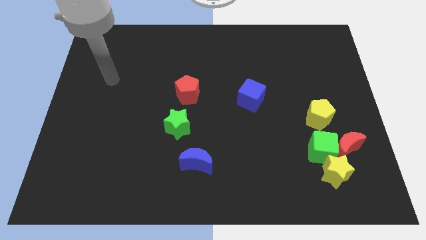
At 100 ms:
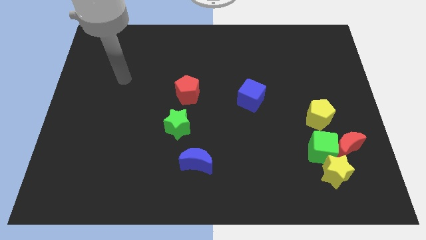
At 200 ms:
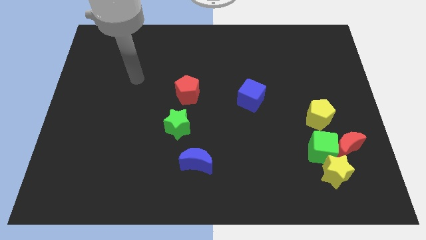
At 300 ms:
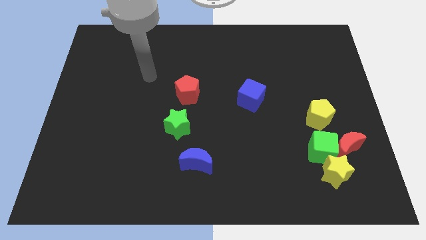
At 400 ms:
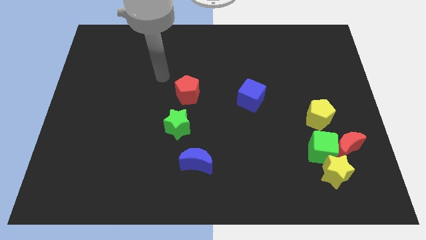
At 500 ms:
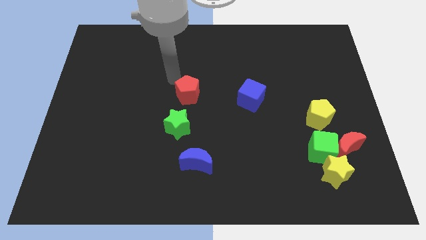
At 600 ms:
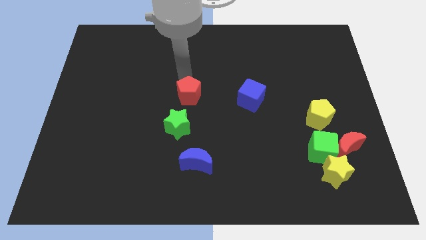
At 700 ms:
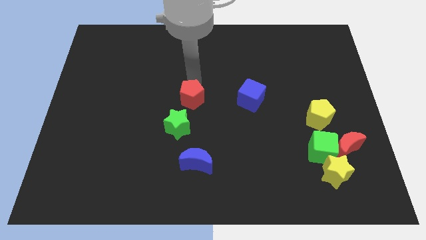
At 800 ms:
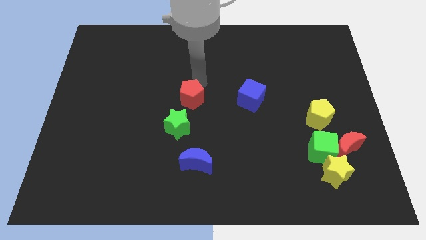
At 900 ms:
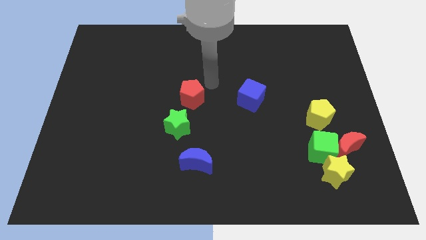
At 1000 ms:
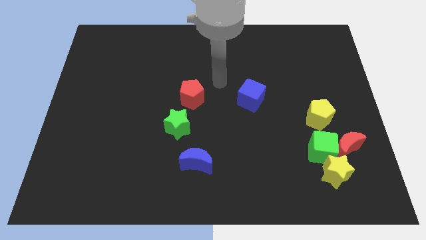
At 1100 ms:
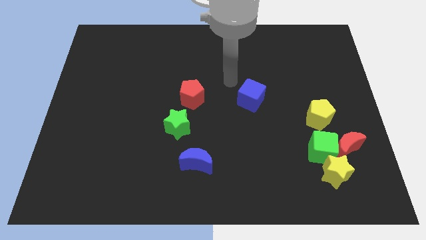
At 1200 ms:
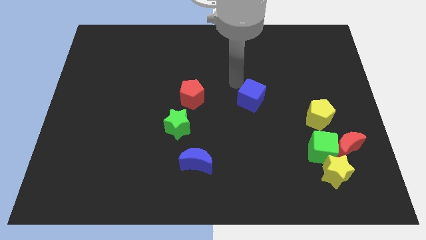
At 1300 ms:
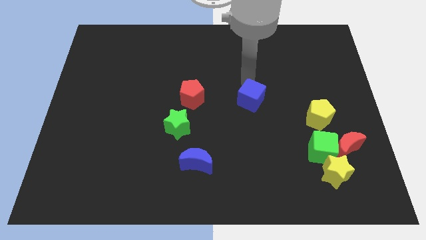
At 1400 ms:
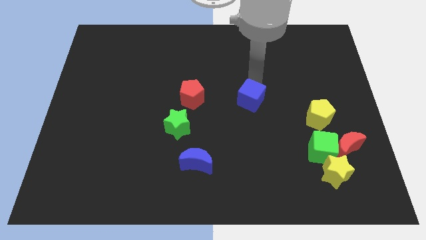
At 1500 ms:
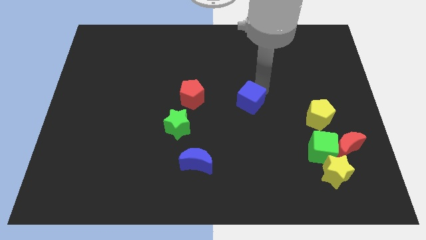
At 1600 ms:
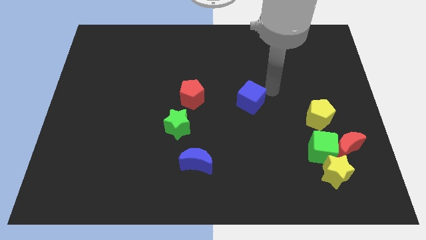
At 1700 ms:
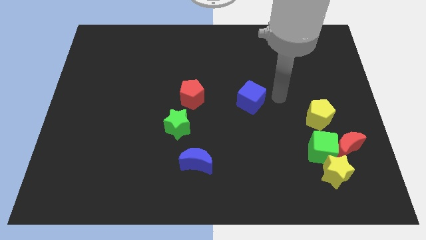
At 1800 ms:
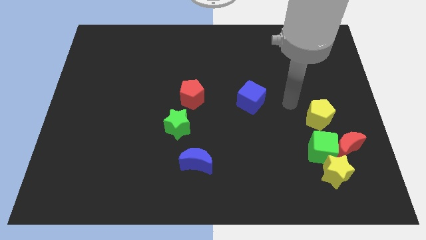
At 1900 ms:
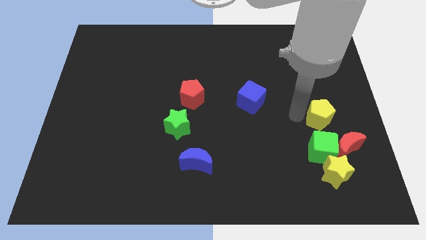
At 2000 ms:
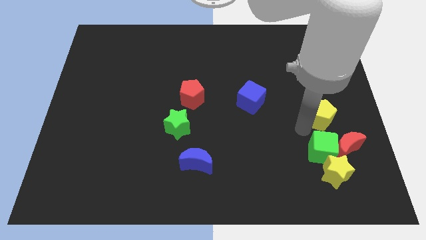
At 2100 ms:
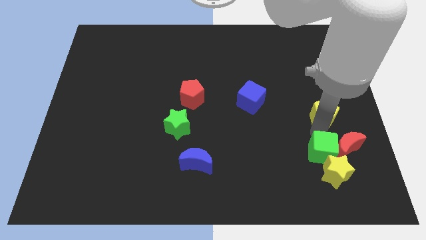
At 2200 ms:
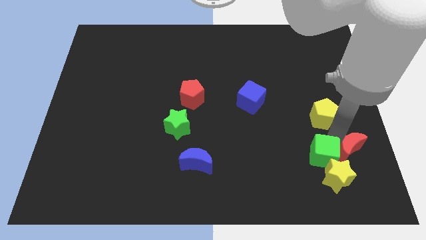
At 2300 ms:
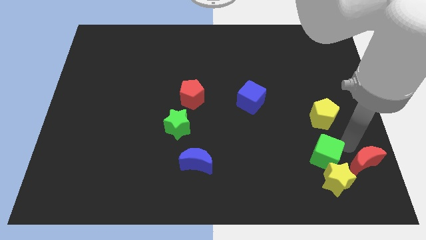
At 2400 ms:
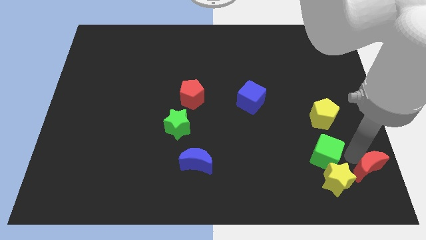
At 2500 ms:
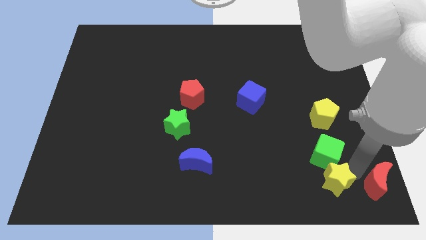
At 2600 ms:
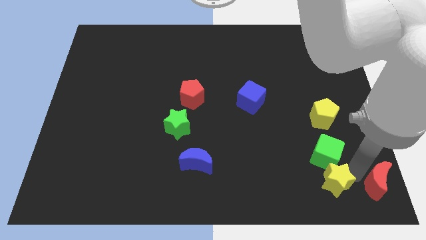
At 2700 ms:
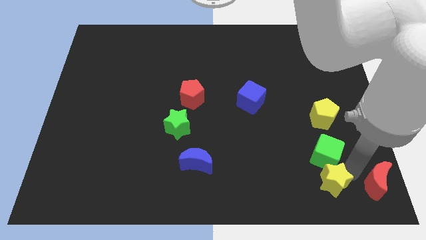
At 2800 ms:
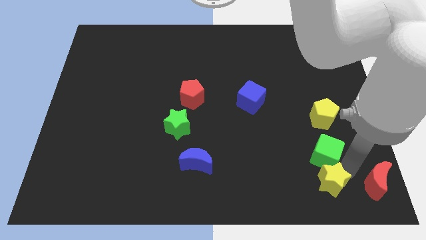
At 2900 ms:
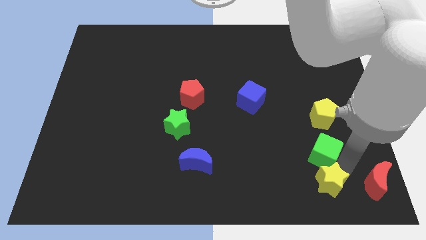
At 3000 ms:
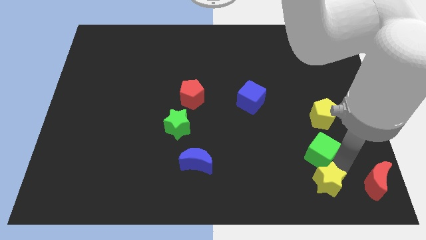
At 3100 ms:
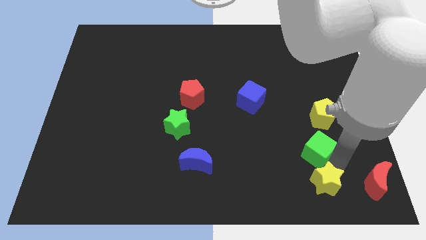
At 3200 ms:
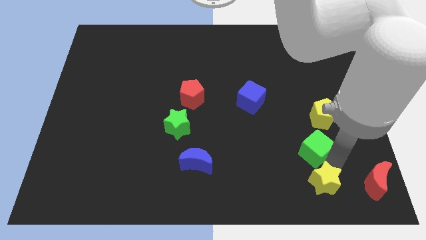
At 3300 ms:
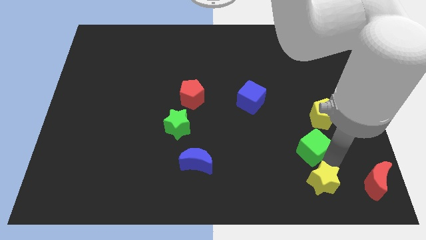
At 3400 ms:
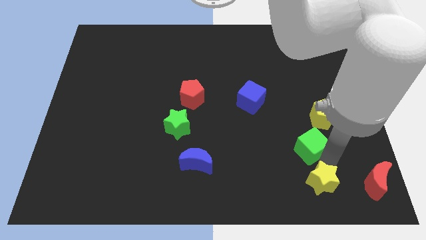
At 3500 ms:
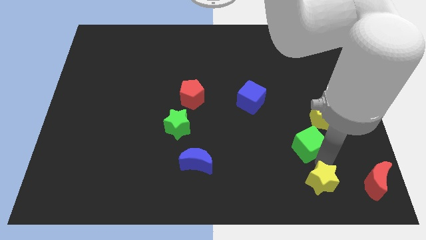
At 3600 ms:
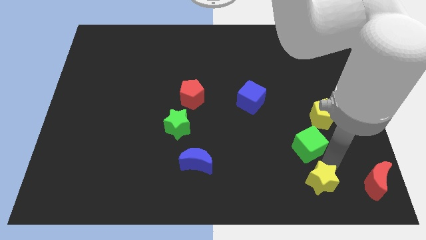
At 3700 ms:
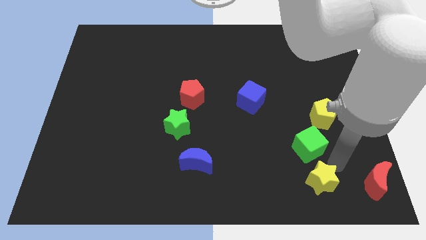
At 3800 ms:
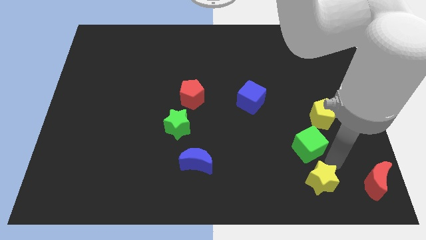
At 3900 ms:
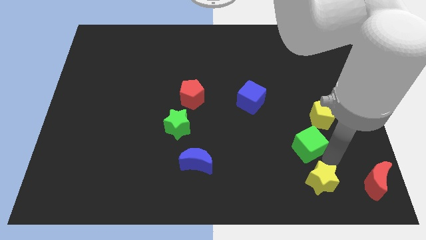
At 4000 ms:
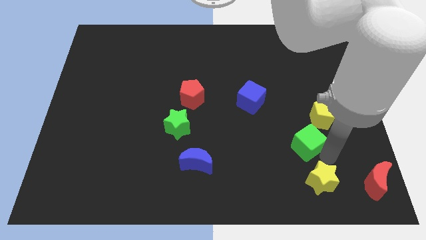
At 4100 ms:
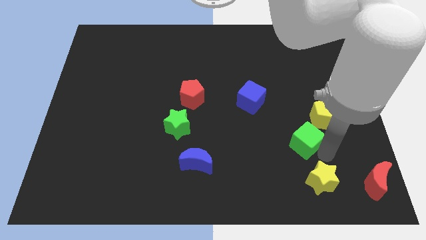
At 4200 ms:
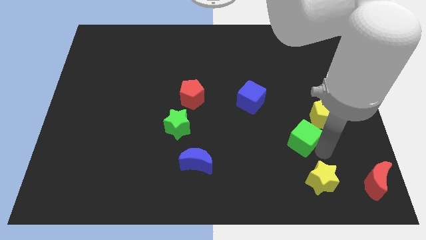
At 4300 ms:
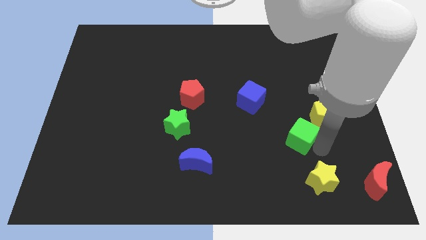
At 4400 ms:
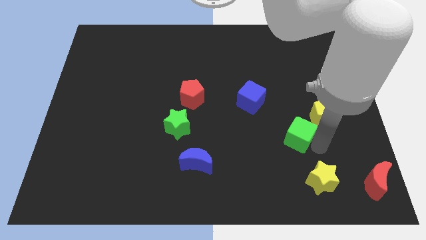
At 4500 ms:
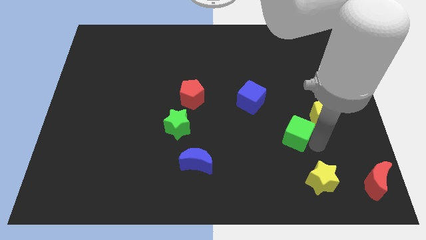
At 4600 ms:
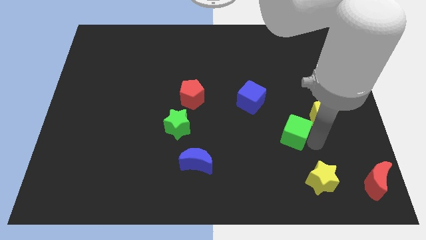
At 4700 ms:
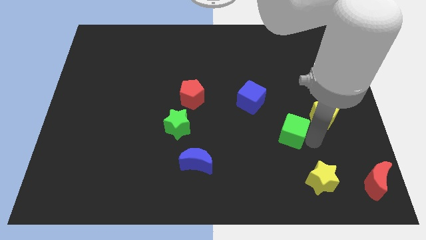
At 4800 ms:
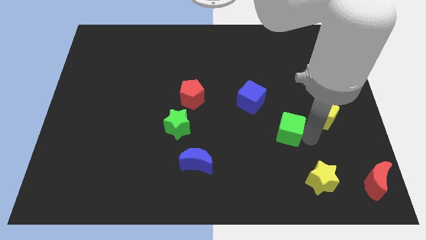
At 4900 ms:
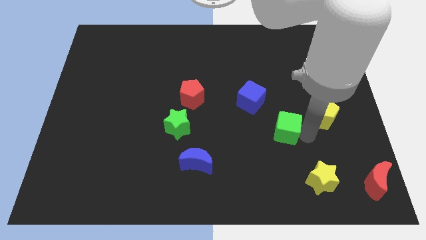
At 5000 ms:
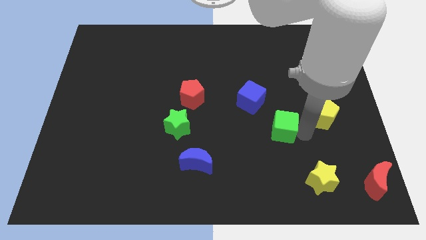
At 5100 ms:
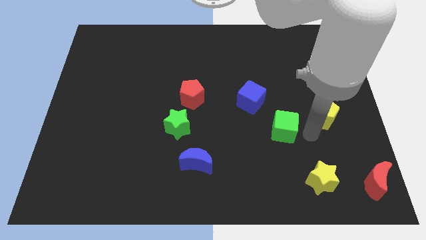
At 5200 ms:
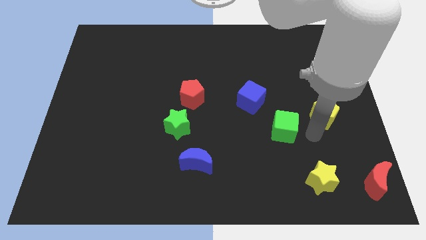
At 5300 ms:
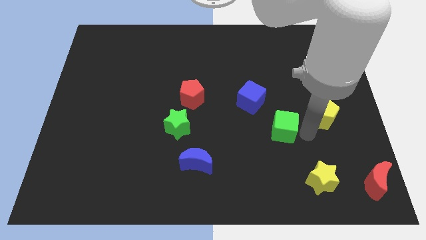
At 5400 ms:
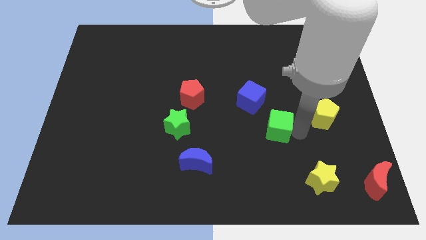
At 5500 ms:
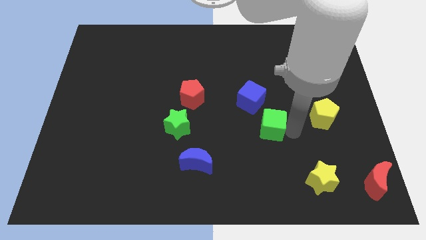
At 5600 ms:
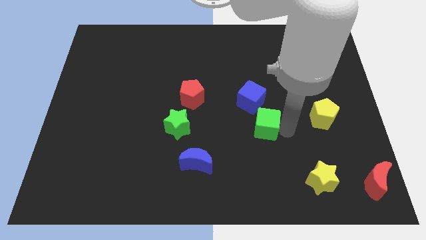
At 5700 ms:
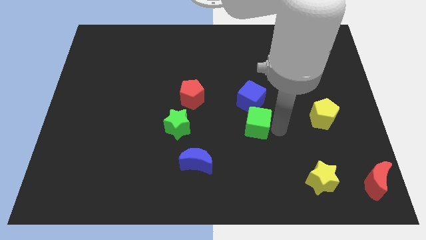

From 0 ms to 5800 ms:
put the green cube to the middle of the board

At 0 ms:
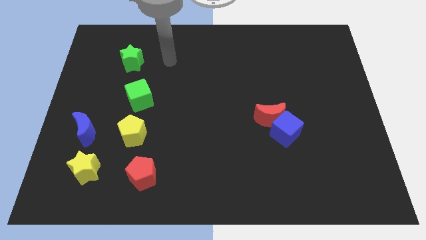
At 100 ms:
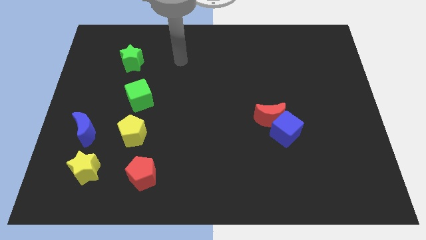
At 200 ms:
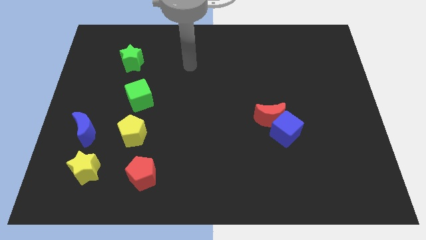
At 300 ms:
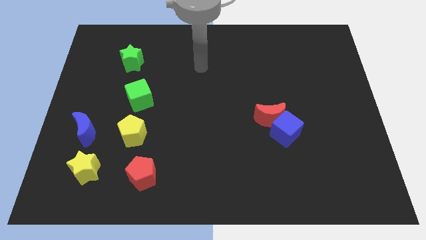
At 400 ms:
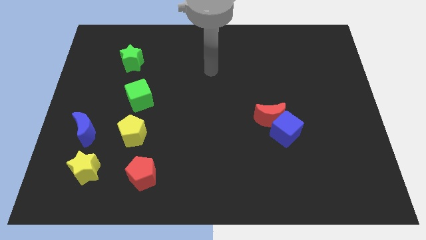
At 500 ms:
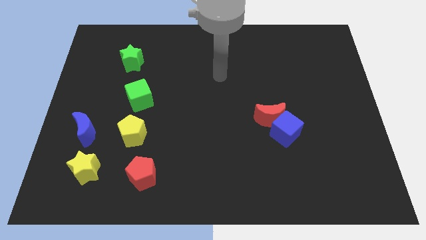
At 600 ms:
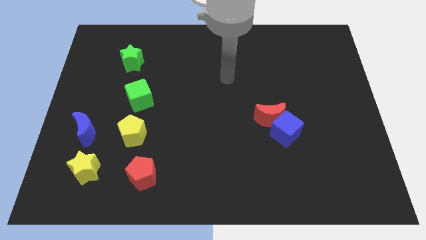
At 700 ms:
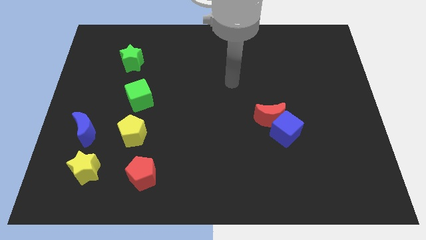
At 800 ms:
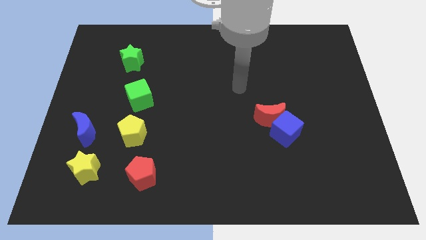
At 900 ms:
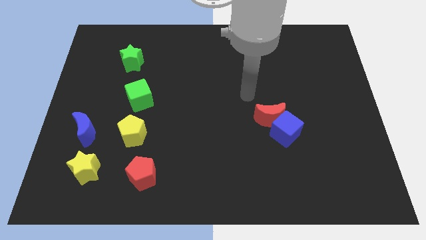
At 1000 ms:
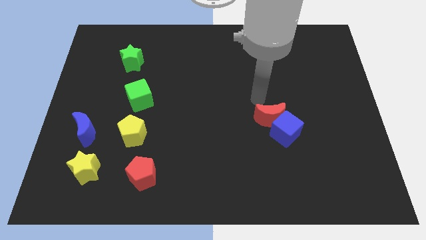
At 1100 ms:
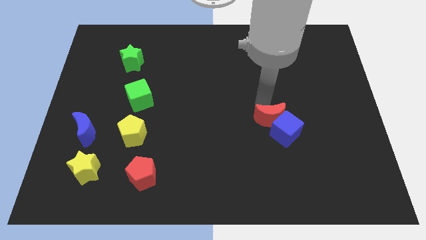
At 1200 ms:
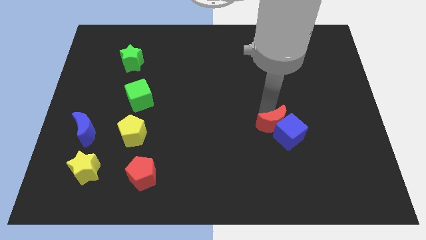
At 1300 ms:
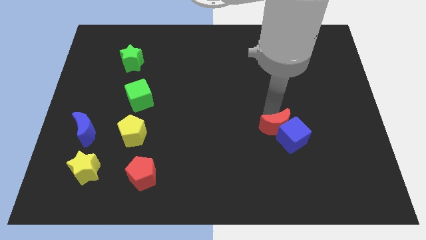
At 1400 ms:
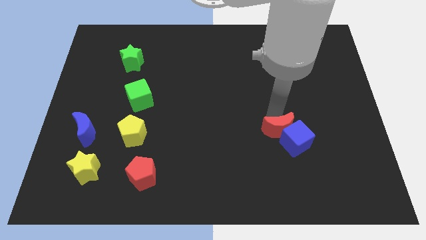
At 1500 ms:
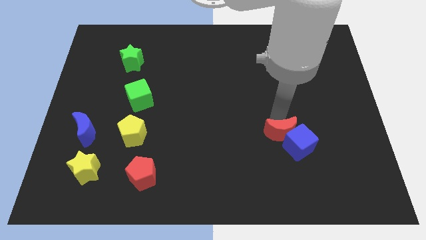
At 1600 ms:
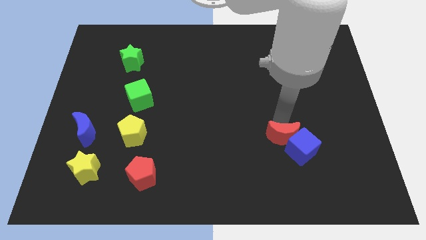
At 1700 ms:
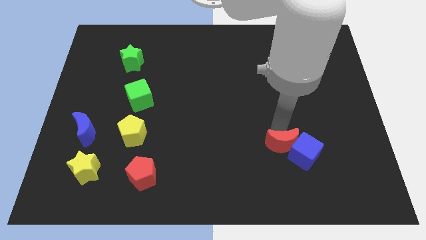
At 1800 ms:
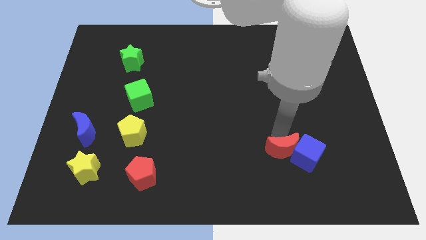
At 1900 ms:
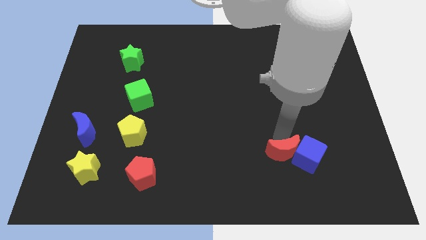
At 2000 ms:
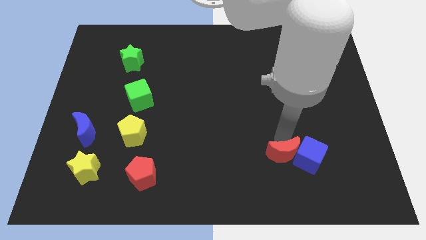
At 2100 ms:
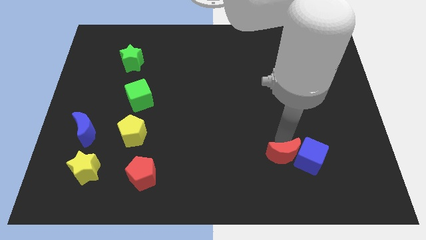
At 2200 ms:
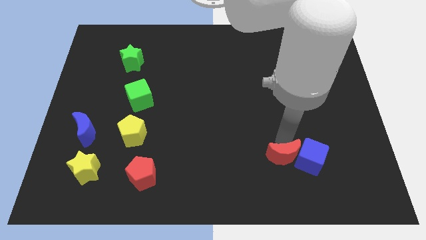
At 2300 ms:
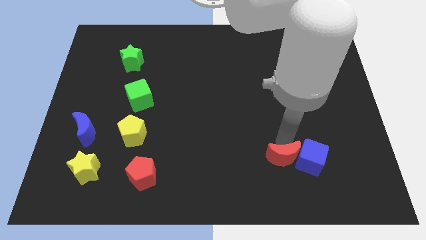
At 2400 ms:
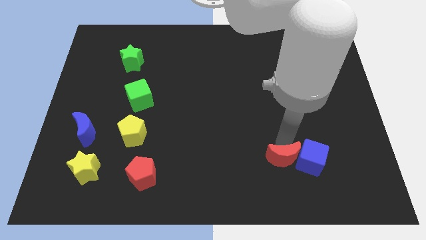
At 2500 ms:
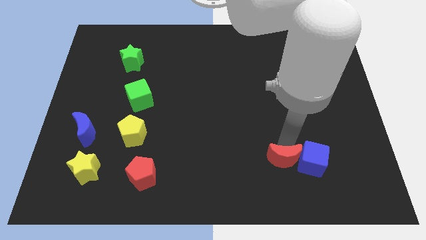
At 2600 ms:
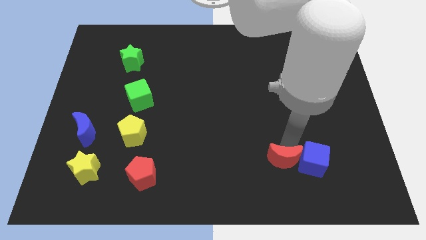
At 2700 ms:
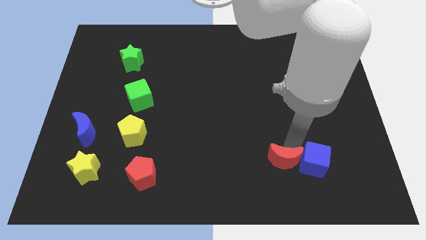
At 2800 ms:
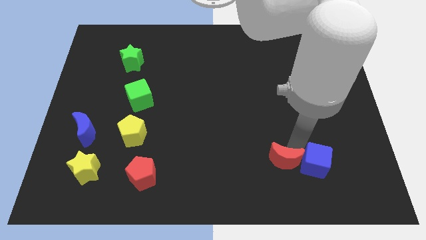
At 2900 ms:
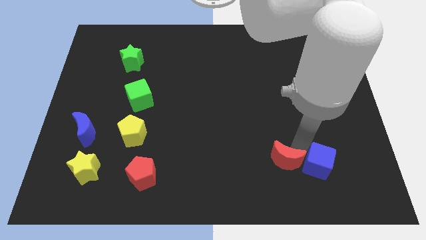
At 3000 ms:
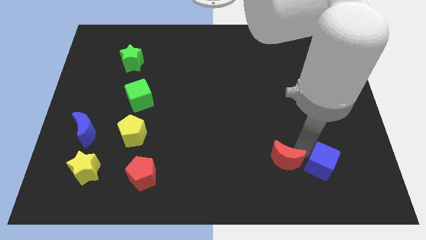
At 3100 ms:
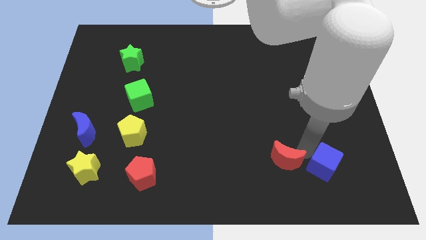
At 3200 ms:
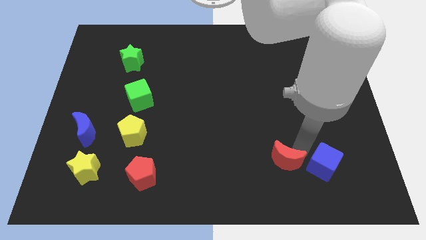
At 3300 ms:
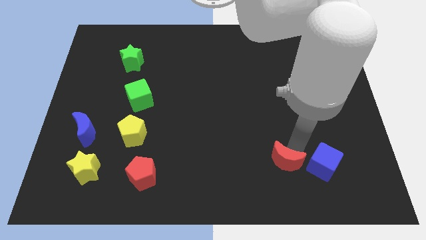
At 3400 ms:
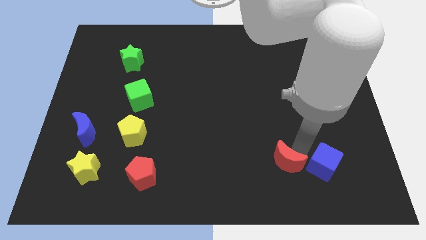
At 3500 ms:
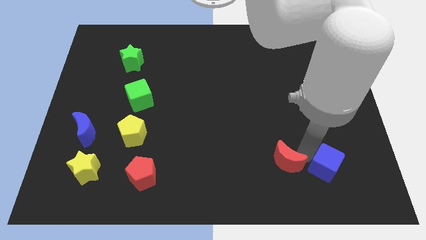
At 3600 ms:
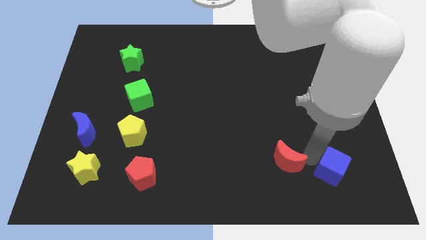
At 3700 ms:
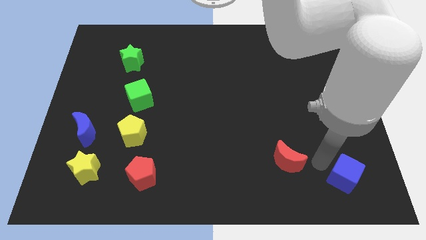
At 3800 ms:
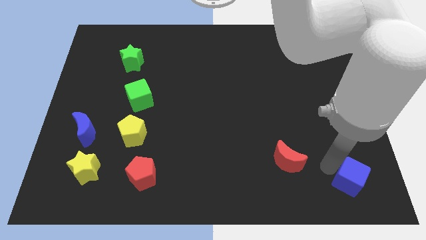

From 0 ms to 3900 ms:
move the blue cube to the lower right corner
